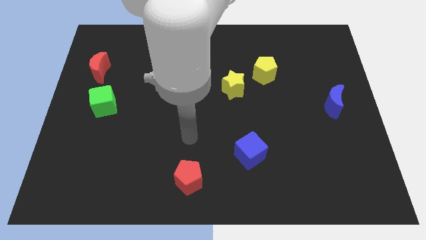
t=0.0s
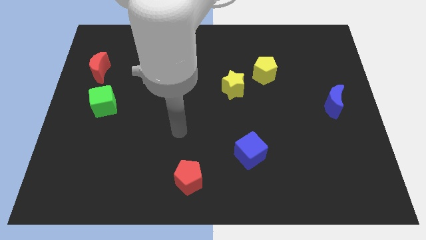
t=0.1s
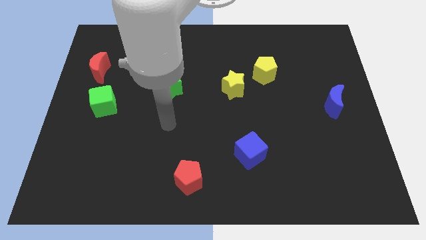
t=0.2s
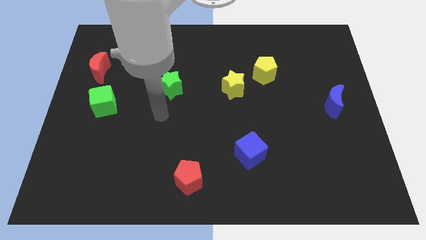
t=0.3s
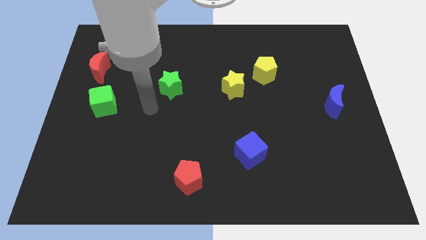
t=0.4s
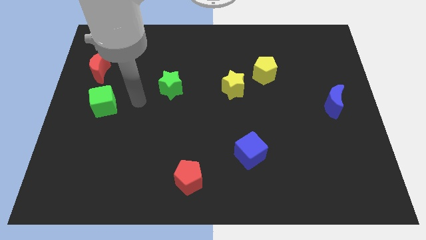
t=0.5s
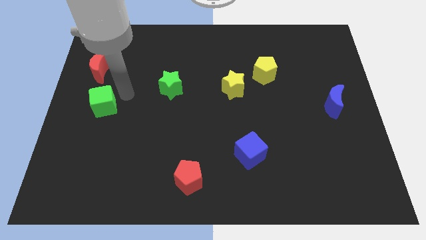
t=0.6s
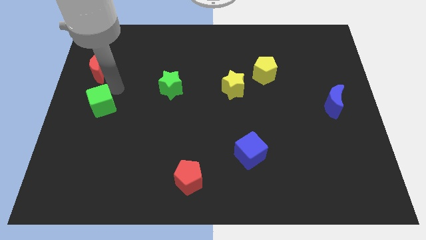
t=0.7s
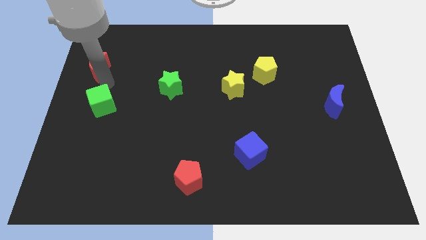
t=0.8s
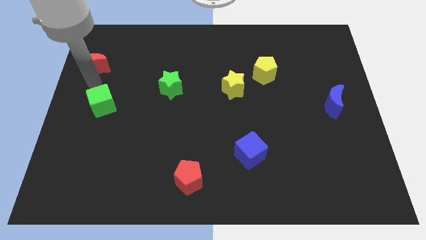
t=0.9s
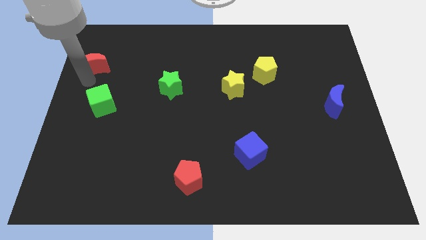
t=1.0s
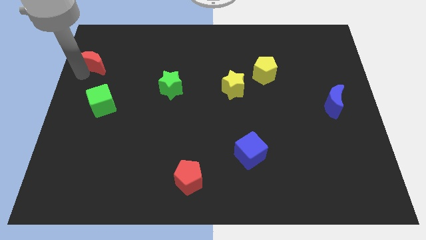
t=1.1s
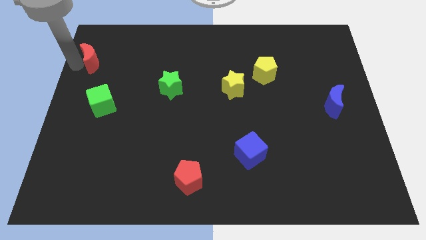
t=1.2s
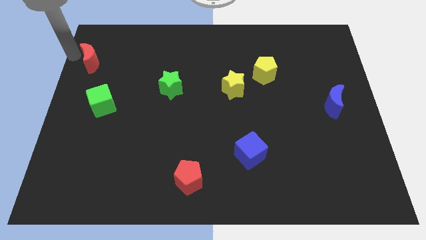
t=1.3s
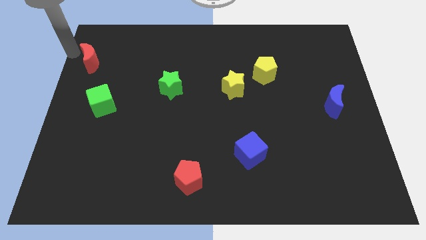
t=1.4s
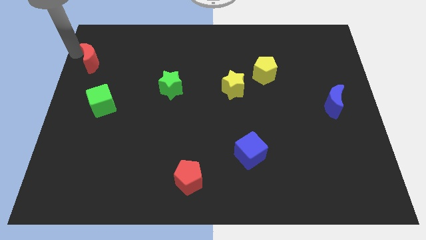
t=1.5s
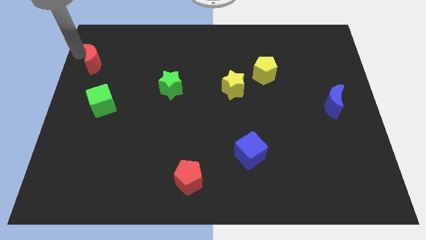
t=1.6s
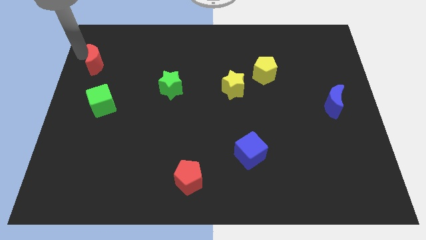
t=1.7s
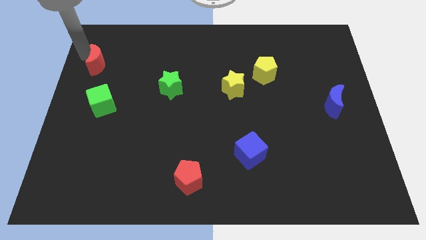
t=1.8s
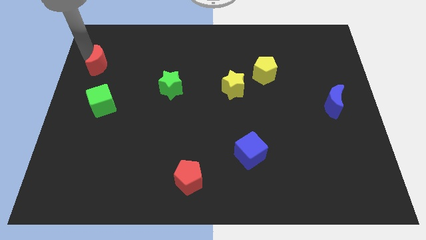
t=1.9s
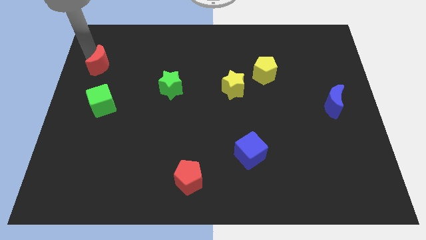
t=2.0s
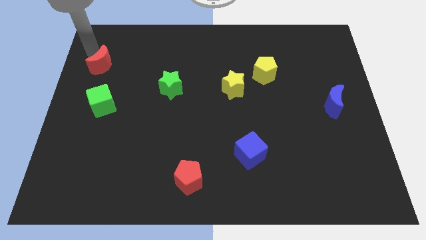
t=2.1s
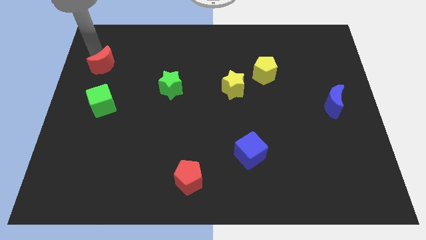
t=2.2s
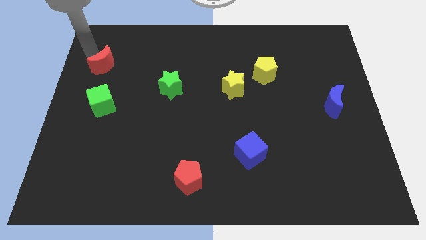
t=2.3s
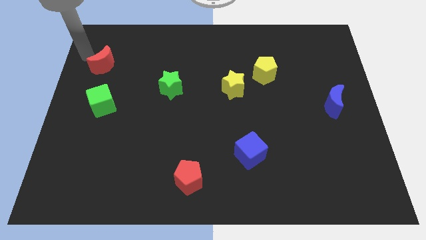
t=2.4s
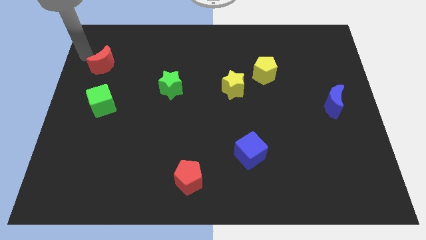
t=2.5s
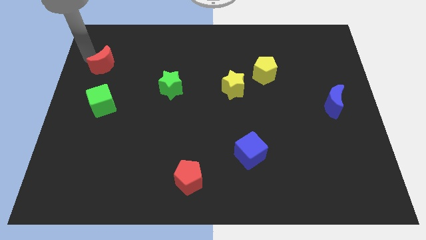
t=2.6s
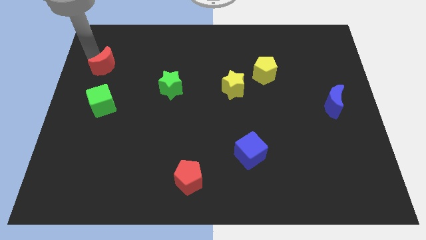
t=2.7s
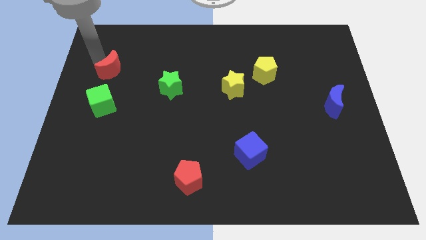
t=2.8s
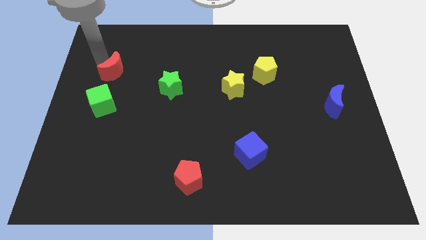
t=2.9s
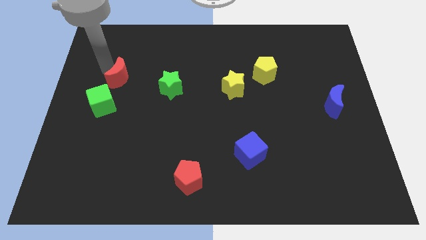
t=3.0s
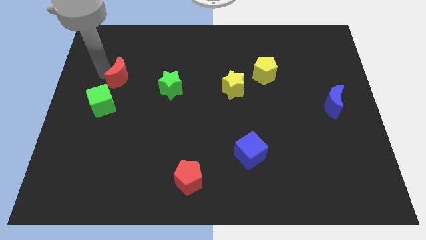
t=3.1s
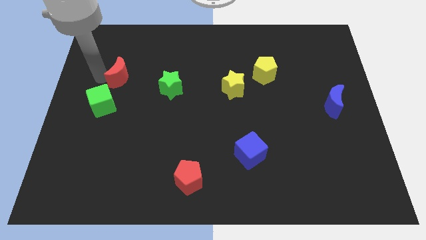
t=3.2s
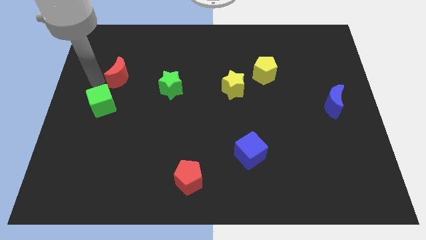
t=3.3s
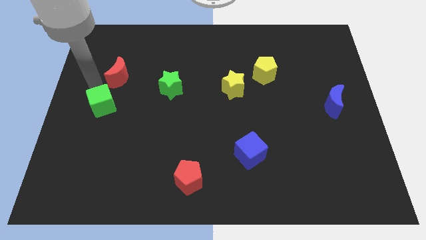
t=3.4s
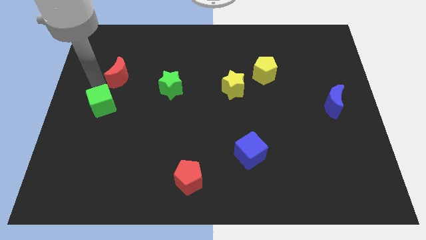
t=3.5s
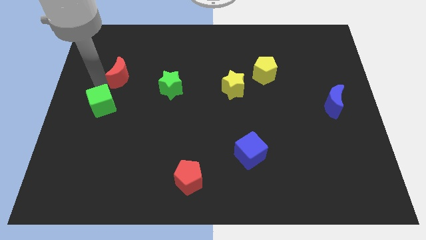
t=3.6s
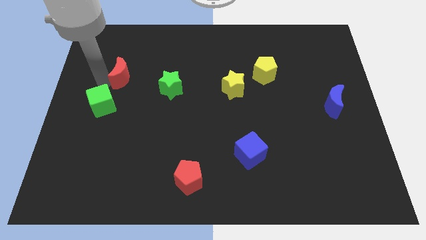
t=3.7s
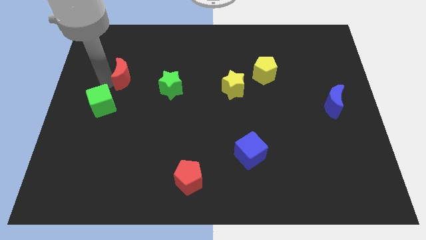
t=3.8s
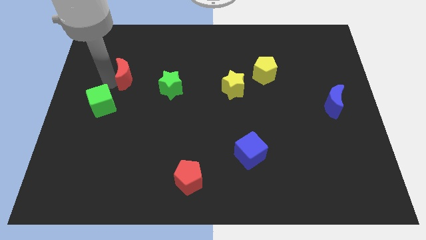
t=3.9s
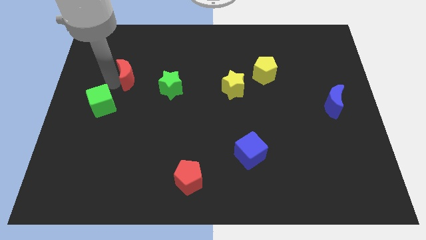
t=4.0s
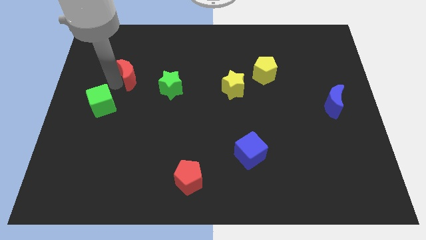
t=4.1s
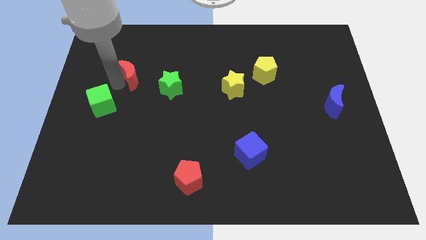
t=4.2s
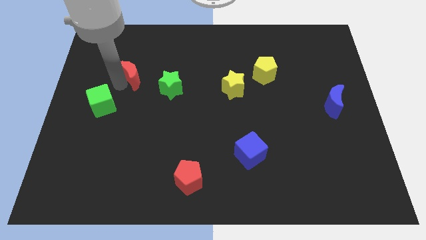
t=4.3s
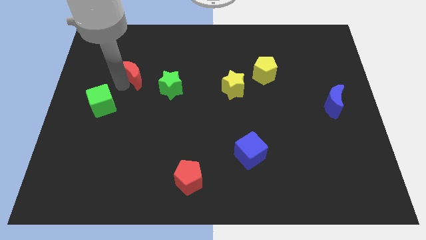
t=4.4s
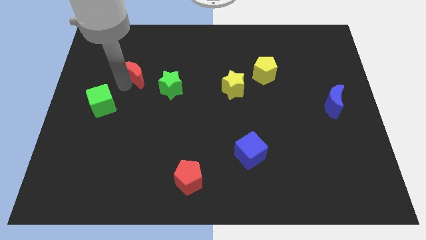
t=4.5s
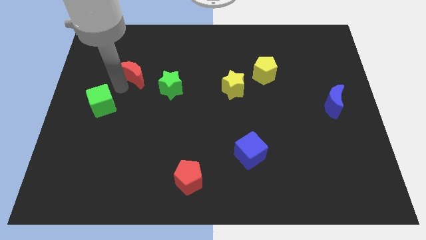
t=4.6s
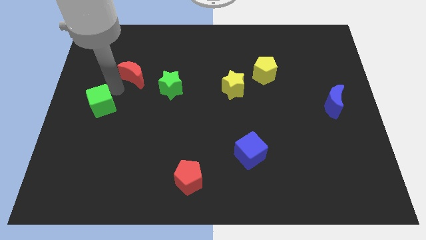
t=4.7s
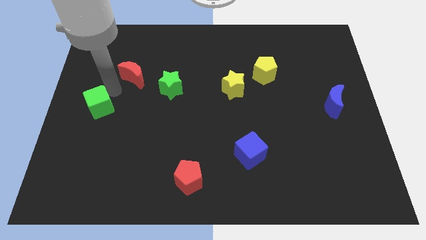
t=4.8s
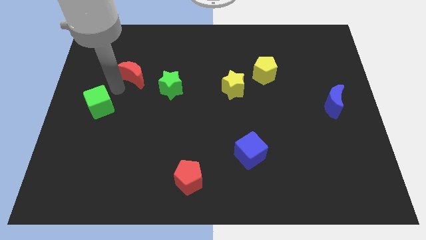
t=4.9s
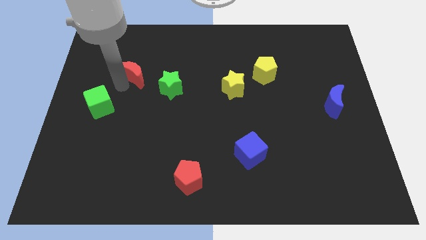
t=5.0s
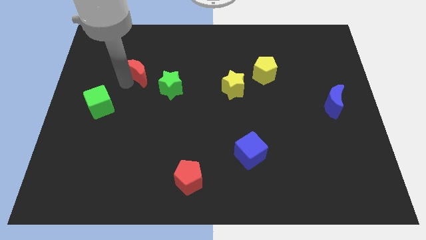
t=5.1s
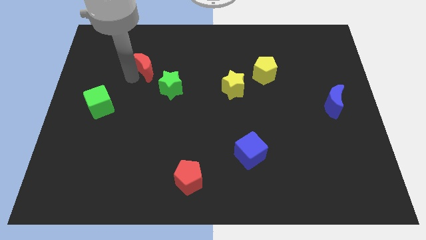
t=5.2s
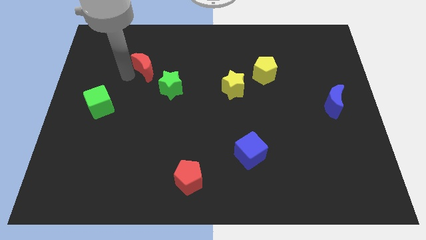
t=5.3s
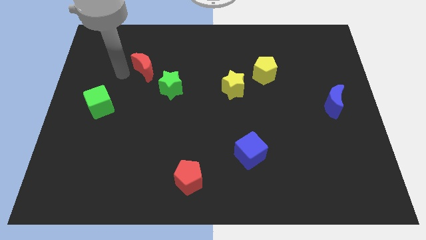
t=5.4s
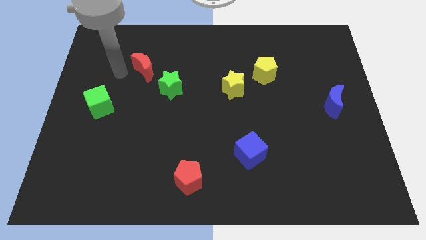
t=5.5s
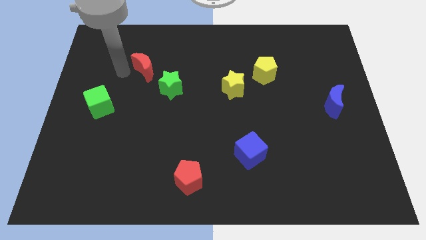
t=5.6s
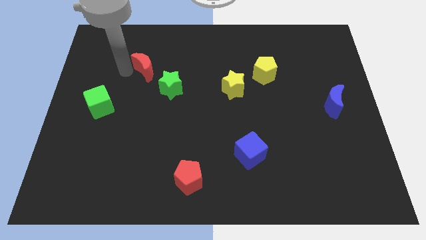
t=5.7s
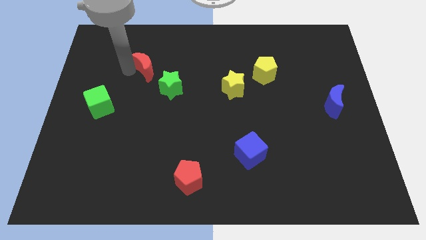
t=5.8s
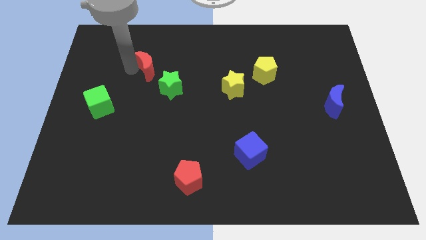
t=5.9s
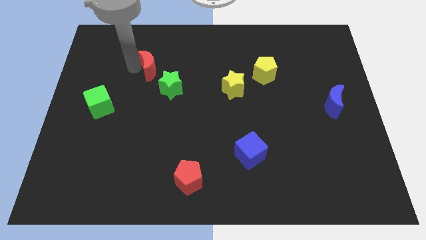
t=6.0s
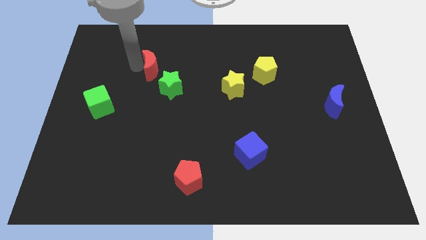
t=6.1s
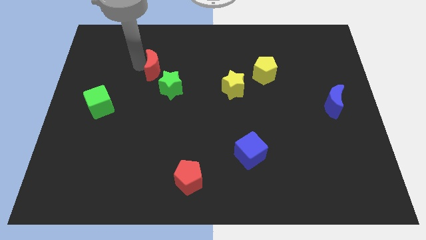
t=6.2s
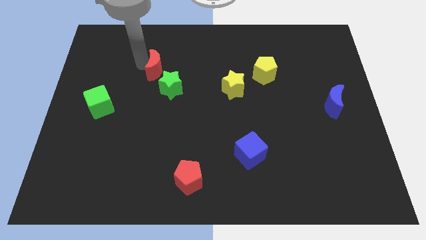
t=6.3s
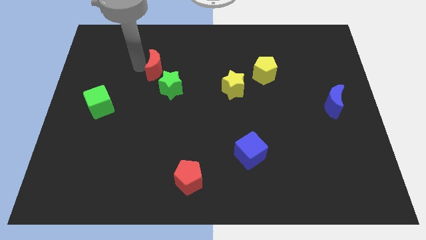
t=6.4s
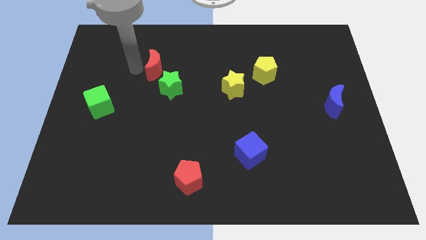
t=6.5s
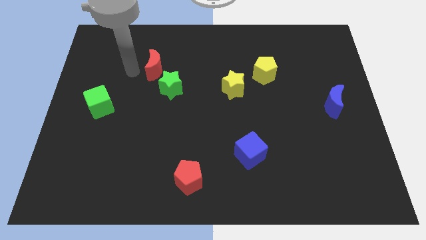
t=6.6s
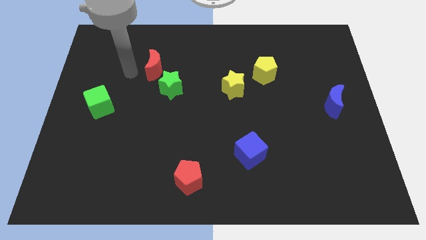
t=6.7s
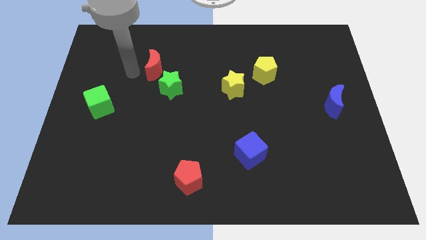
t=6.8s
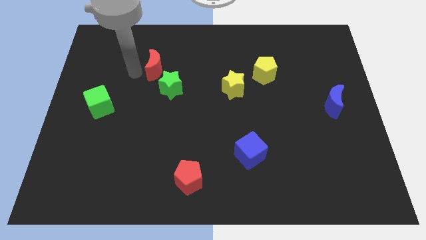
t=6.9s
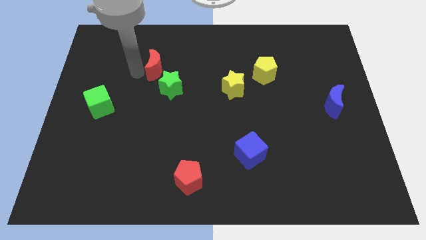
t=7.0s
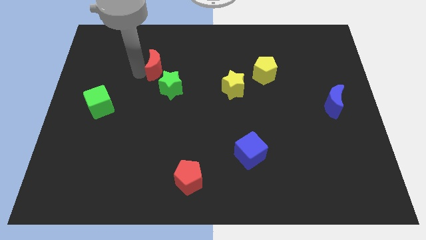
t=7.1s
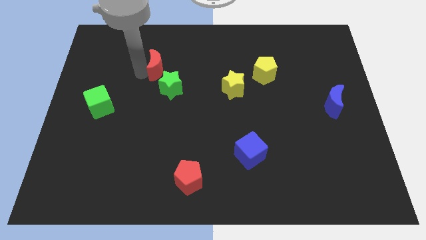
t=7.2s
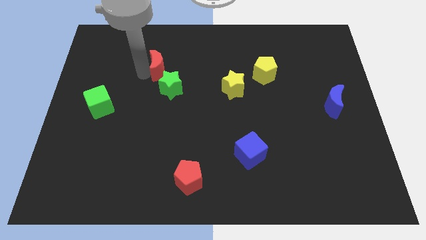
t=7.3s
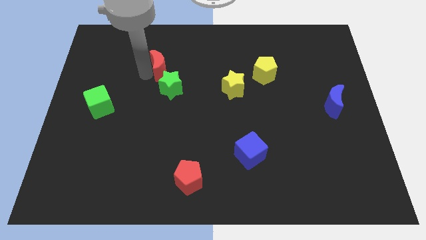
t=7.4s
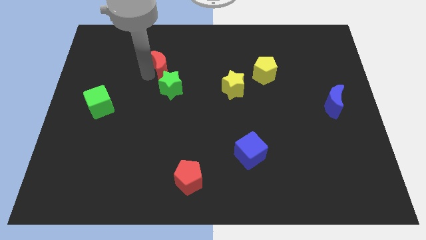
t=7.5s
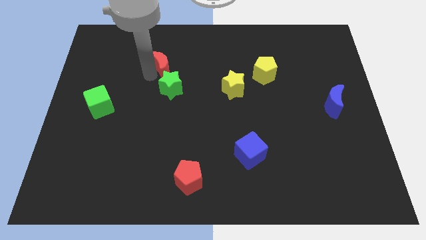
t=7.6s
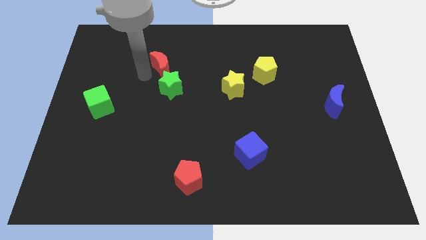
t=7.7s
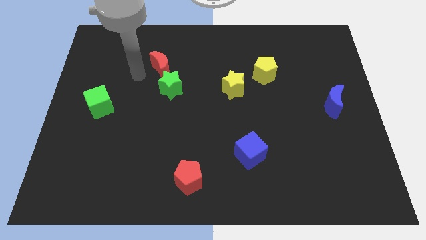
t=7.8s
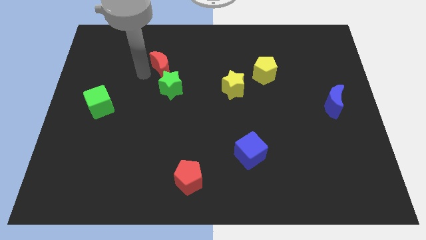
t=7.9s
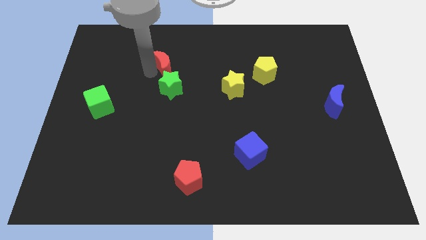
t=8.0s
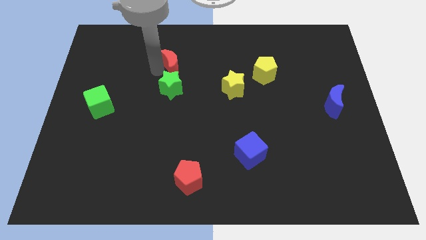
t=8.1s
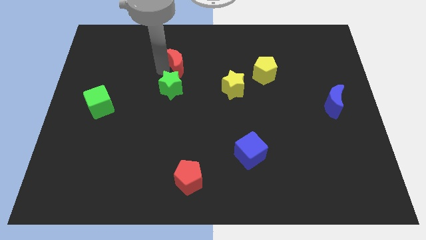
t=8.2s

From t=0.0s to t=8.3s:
slide the red moon right
